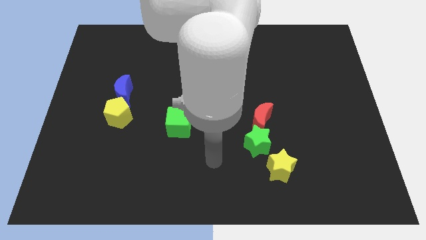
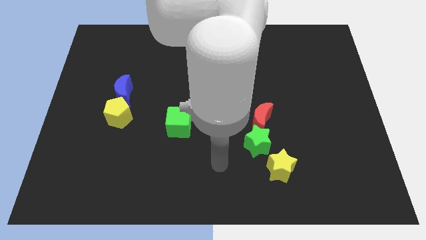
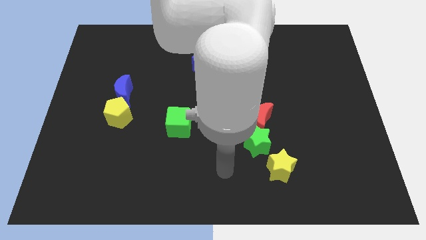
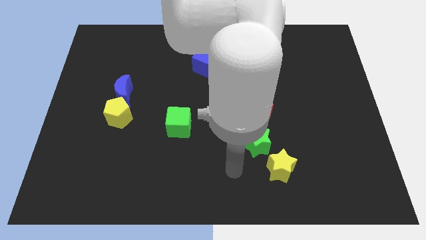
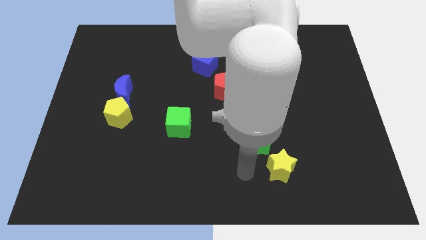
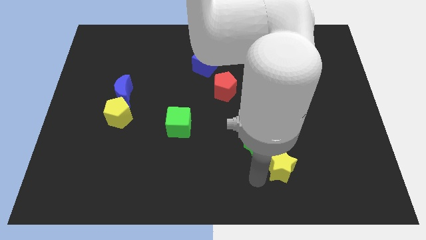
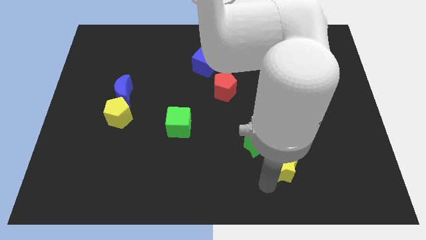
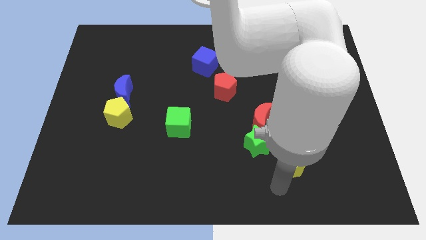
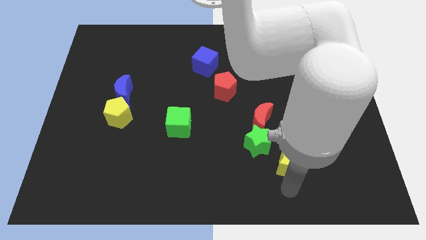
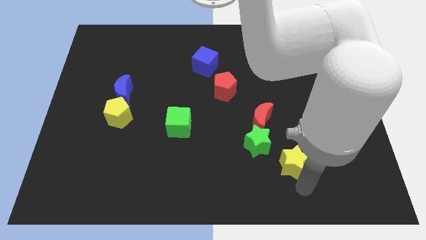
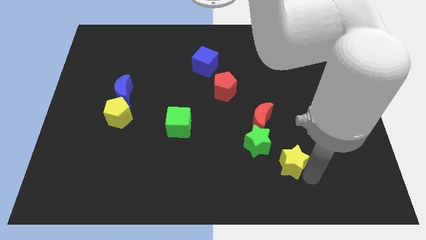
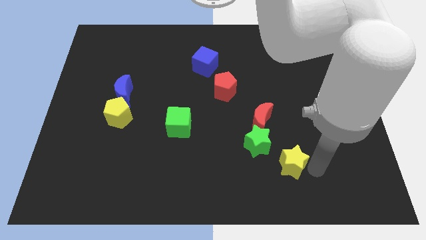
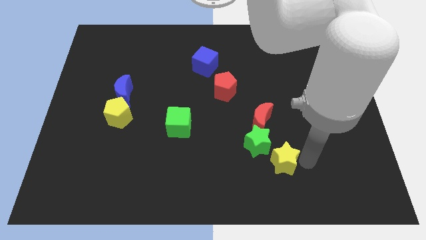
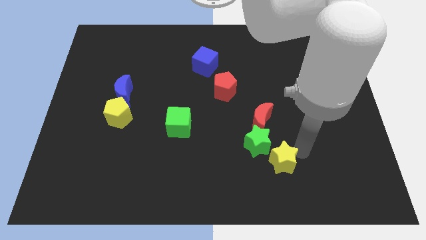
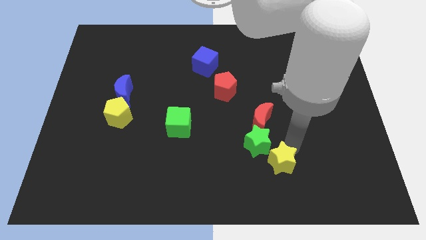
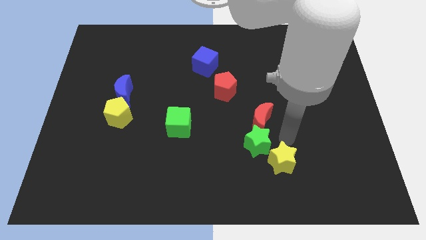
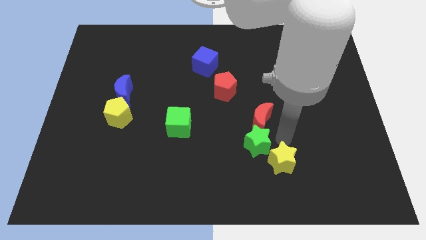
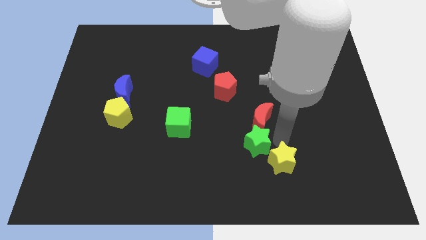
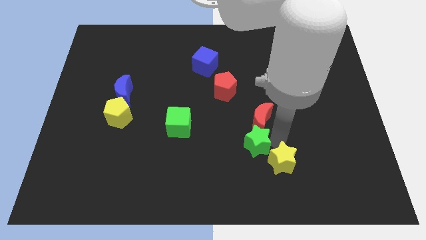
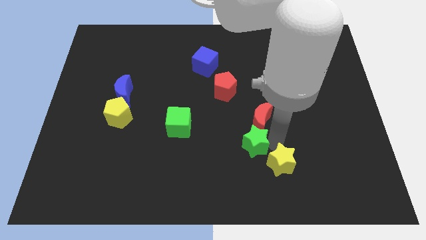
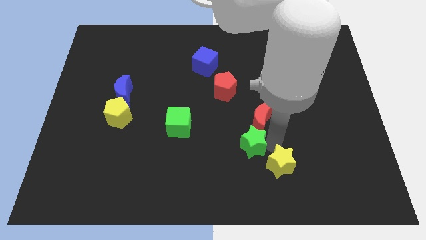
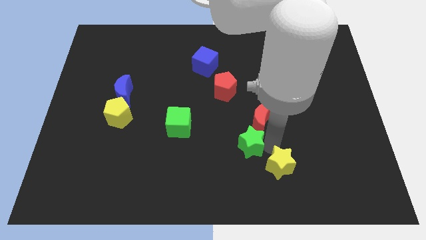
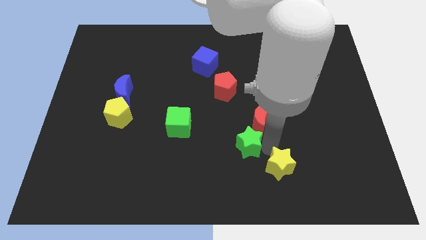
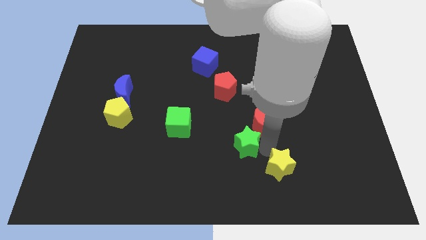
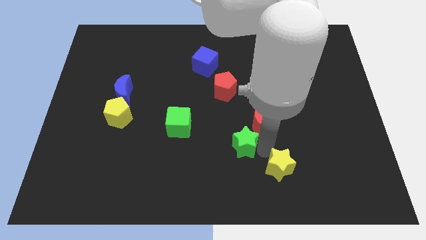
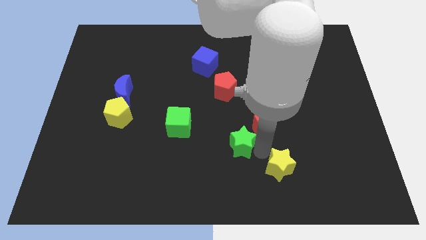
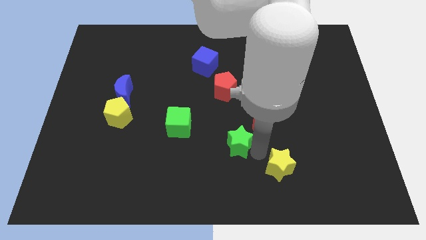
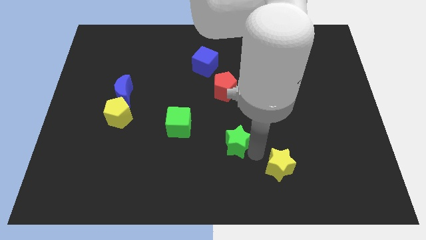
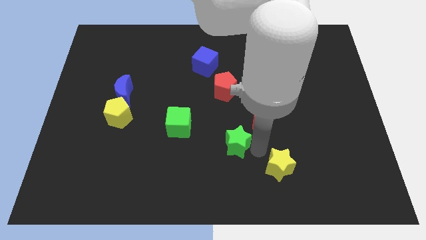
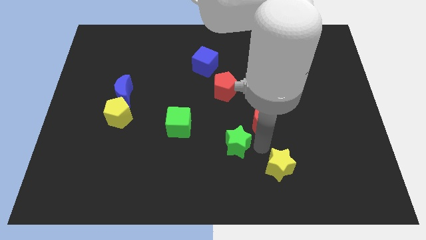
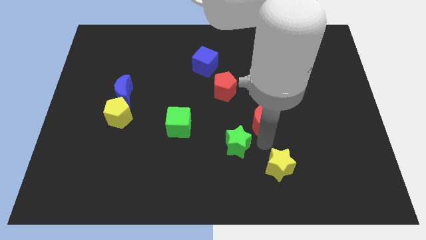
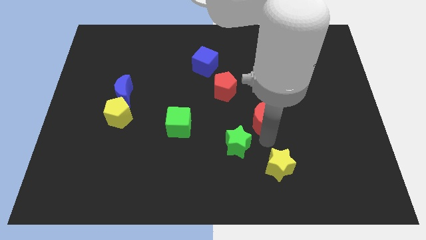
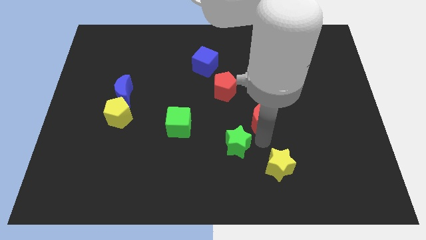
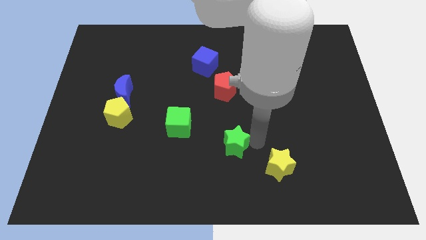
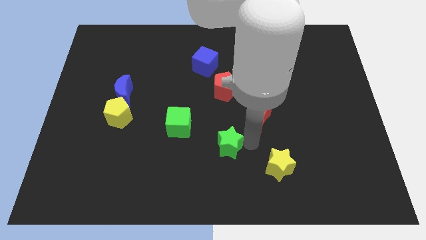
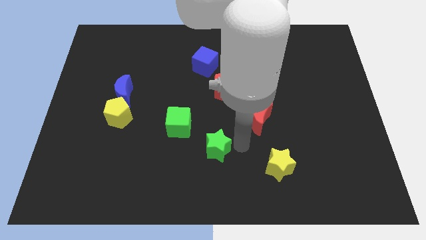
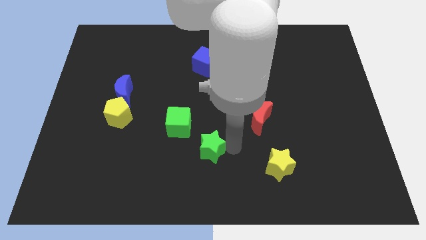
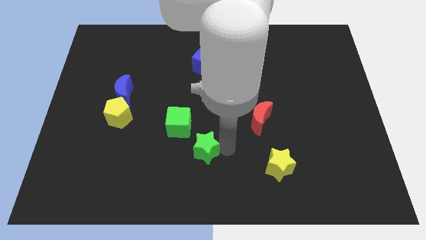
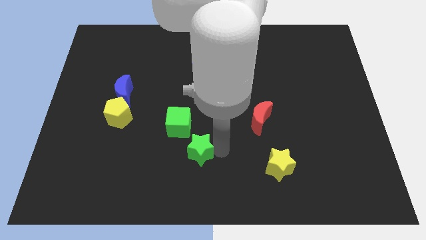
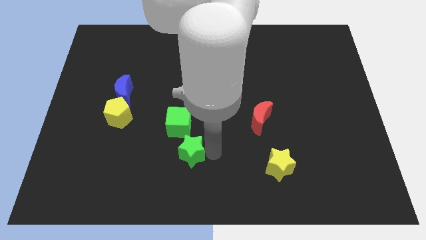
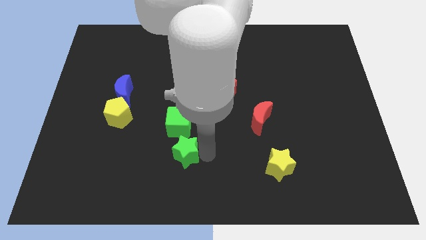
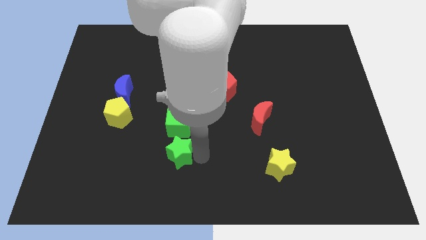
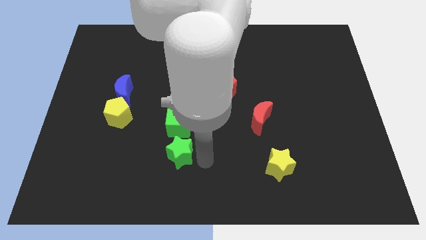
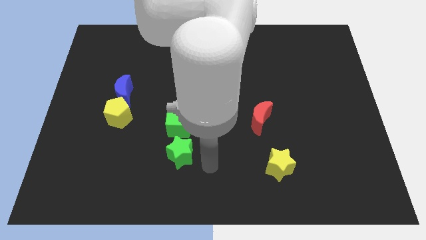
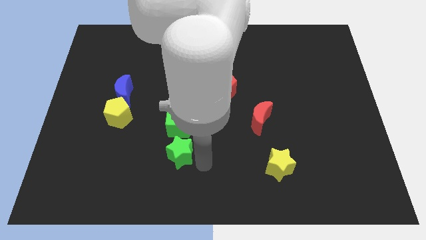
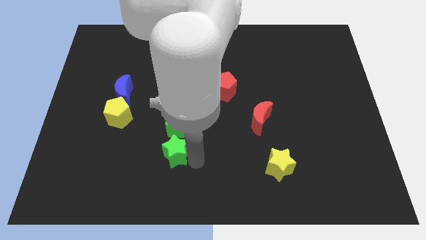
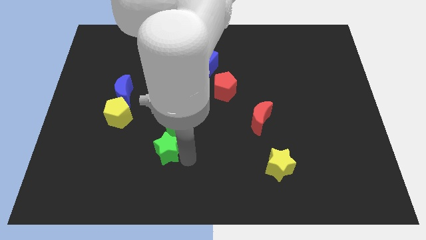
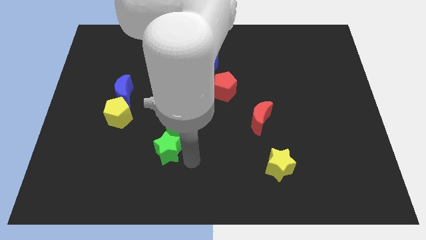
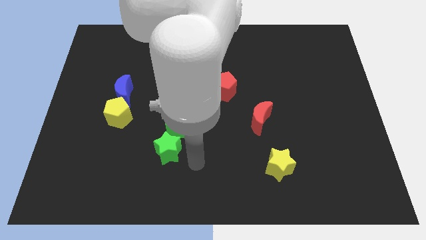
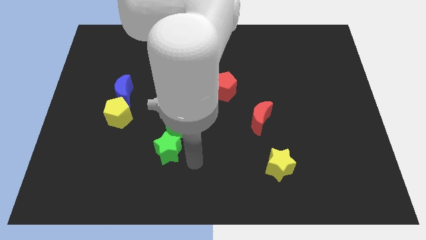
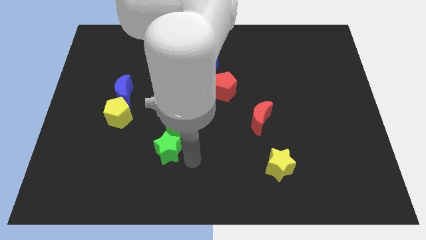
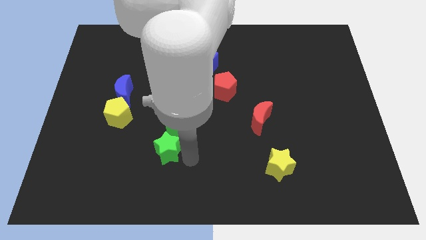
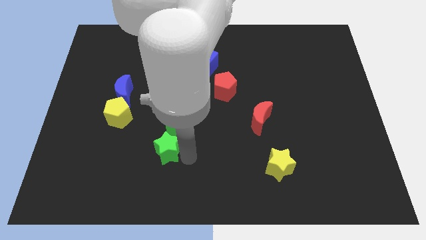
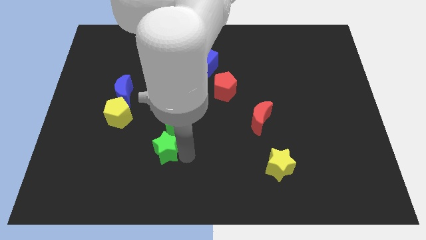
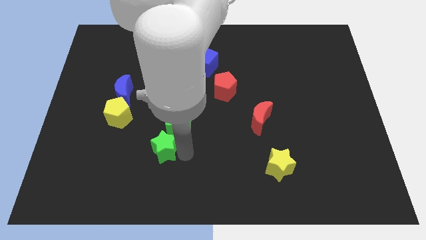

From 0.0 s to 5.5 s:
slide the green star to the left

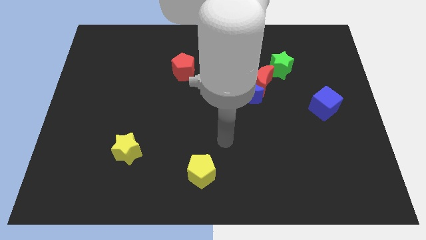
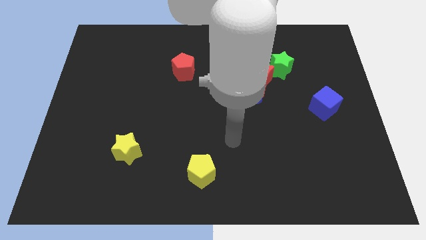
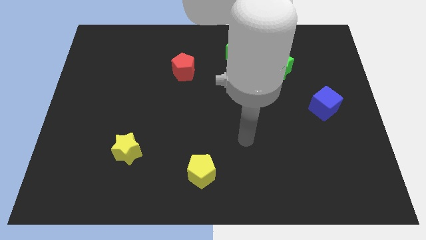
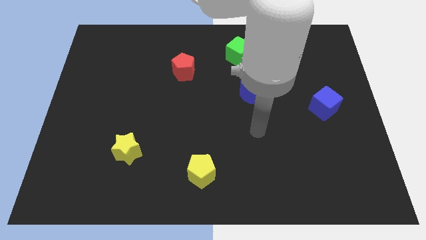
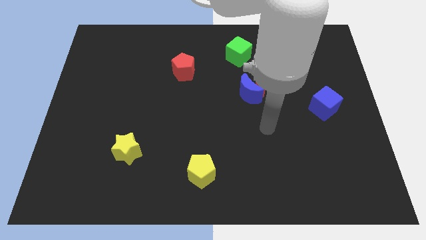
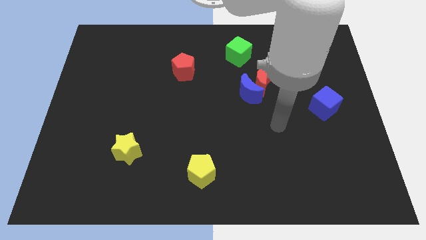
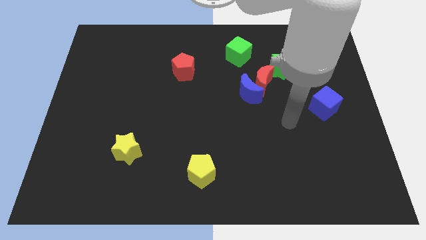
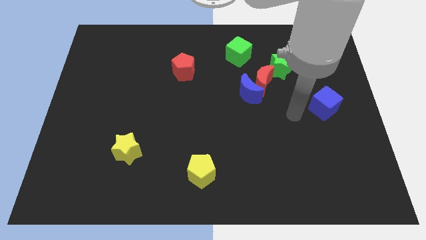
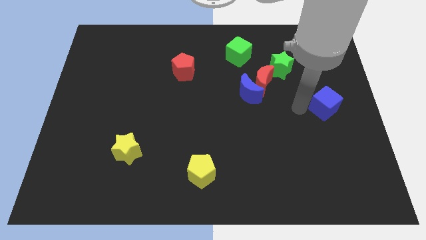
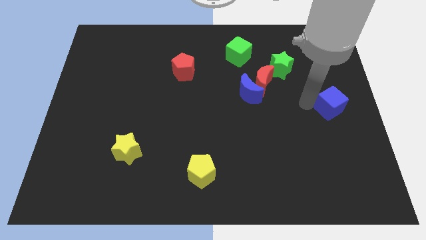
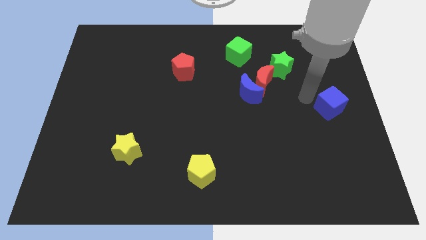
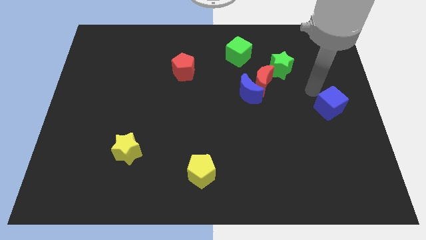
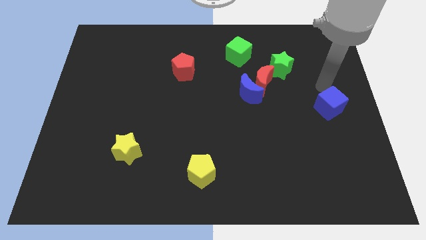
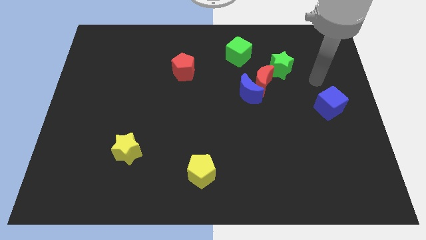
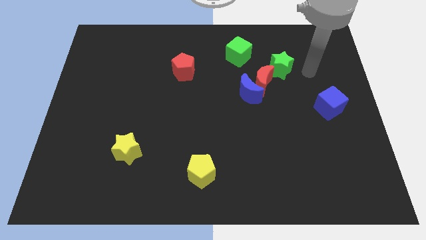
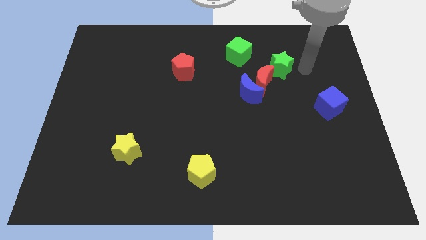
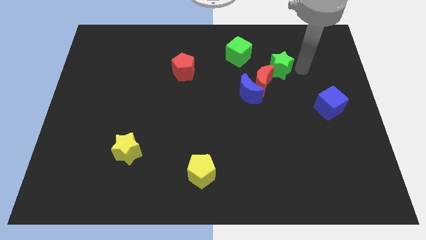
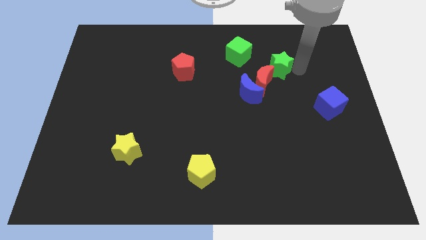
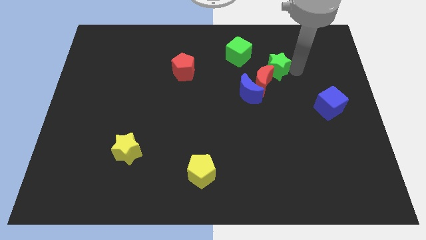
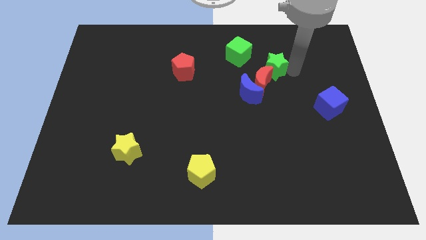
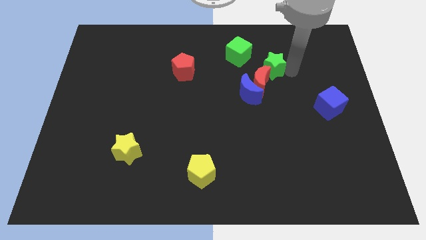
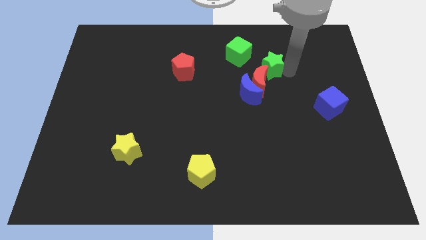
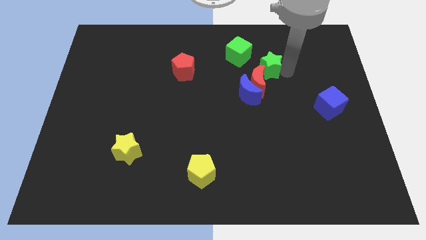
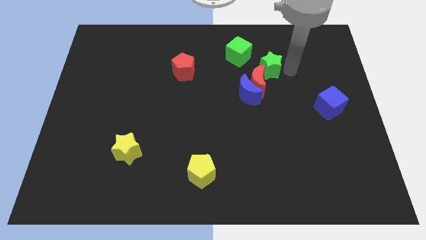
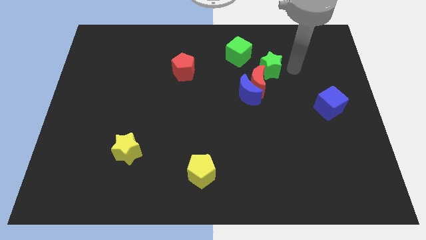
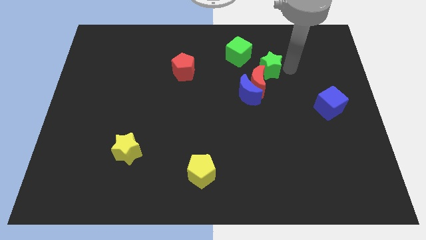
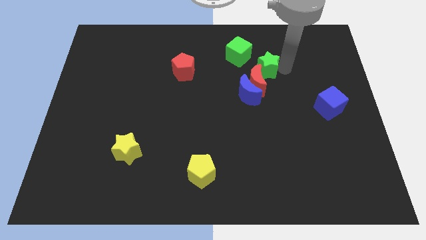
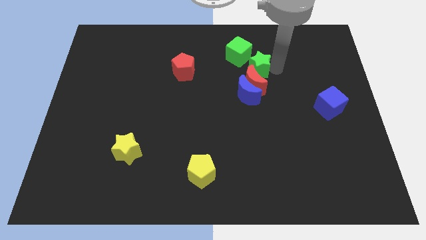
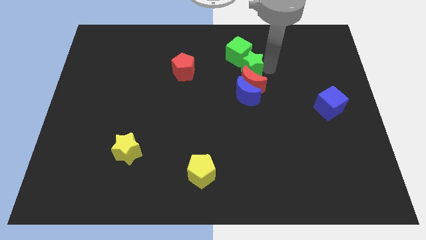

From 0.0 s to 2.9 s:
slide the green star left somewhat
